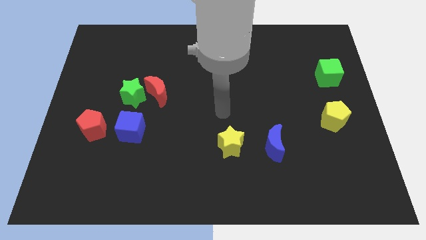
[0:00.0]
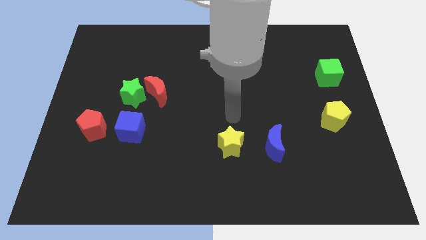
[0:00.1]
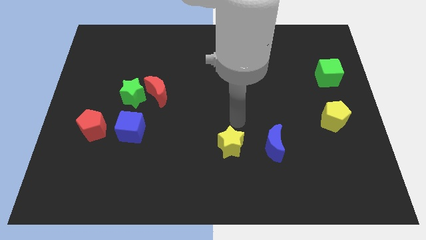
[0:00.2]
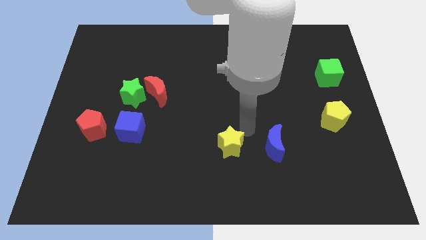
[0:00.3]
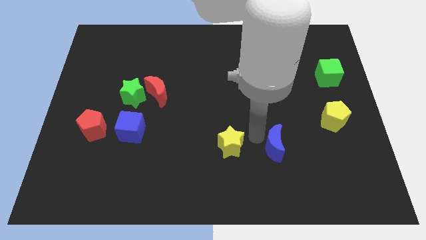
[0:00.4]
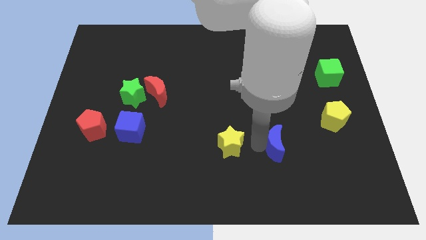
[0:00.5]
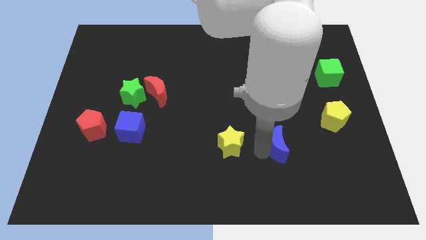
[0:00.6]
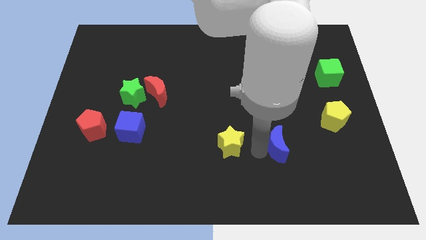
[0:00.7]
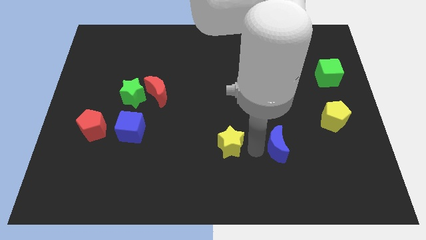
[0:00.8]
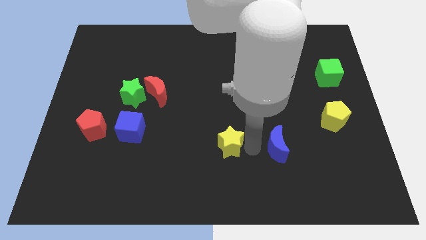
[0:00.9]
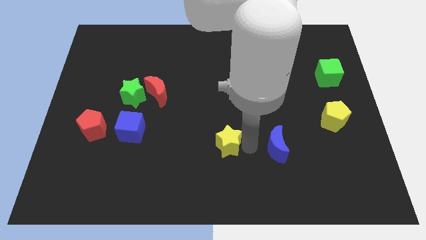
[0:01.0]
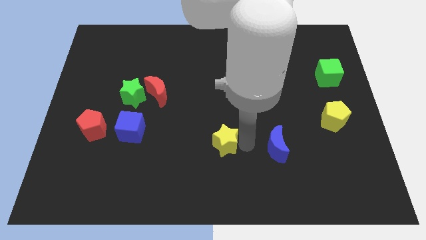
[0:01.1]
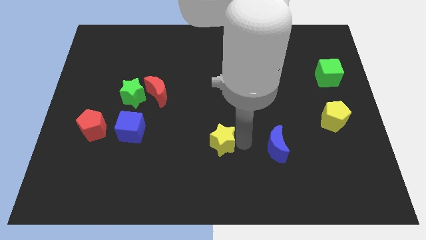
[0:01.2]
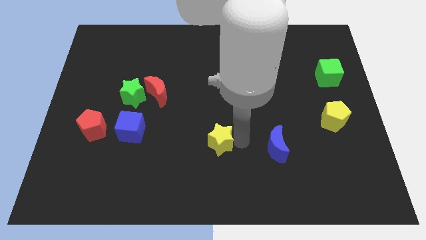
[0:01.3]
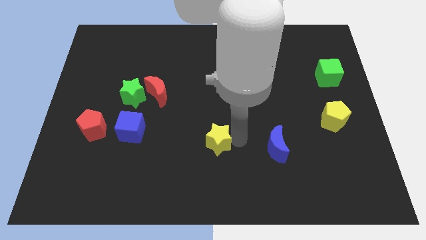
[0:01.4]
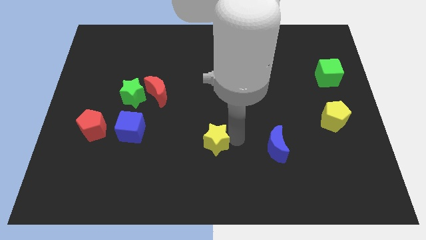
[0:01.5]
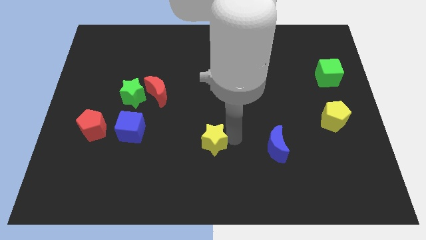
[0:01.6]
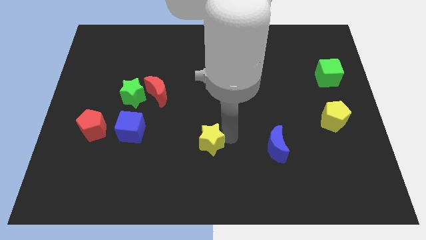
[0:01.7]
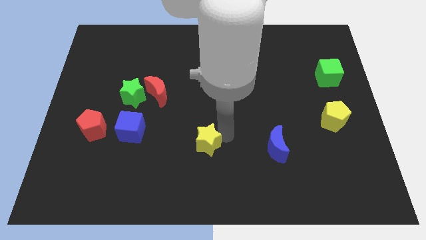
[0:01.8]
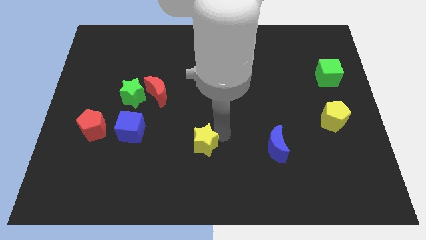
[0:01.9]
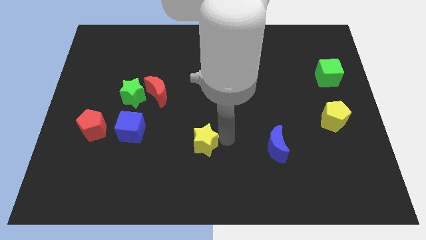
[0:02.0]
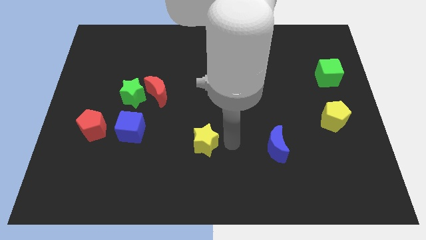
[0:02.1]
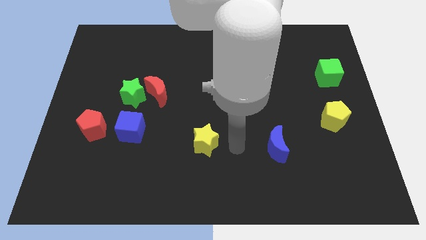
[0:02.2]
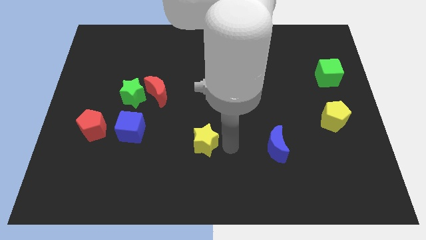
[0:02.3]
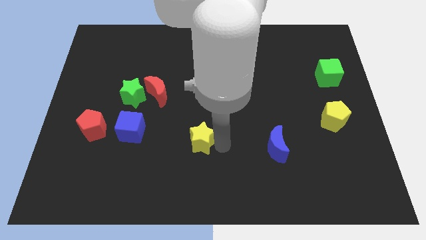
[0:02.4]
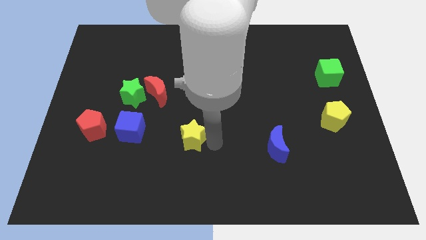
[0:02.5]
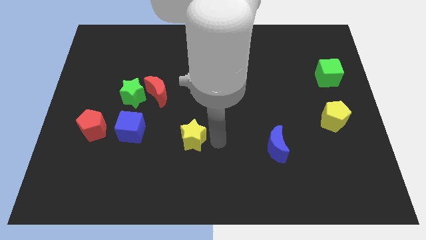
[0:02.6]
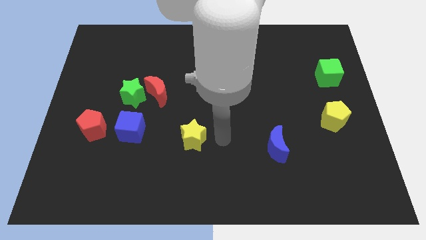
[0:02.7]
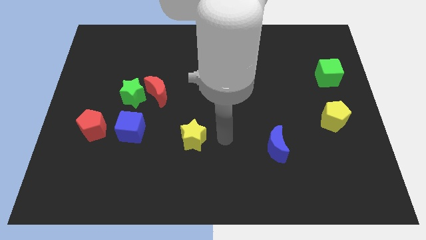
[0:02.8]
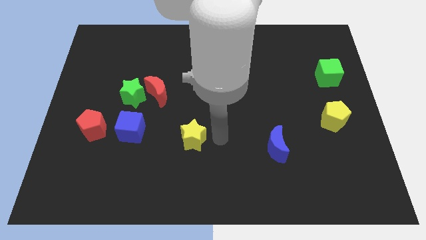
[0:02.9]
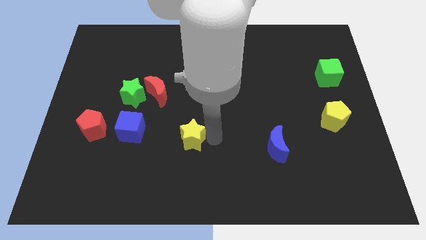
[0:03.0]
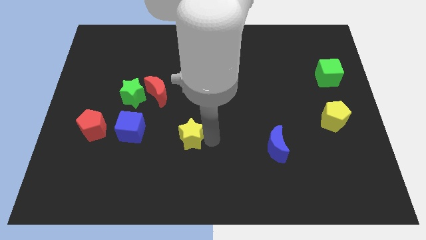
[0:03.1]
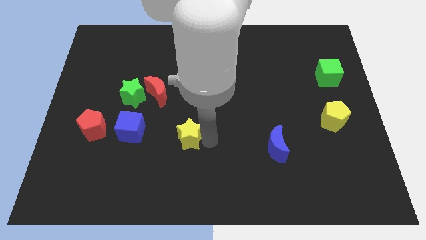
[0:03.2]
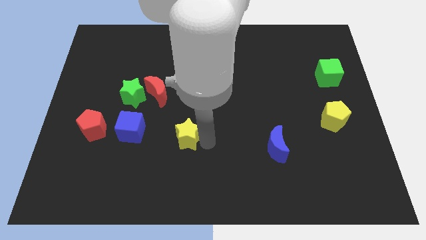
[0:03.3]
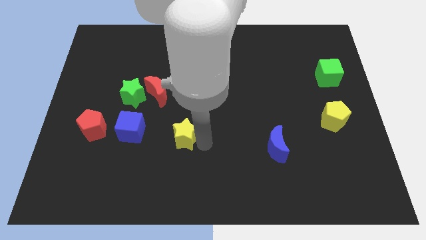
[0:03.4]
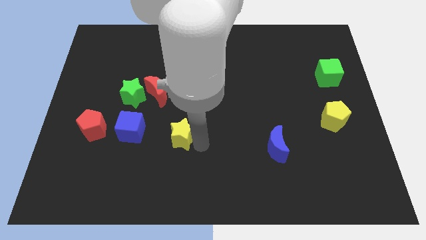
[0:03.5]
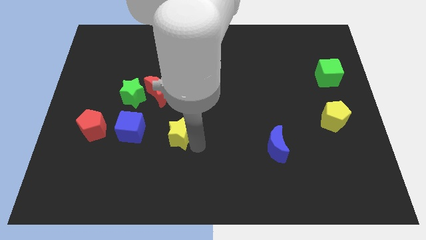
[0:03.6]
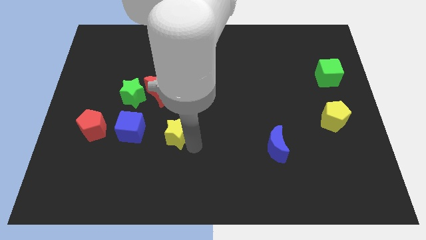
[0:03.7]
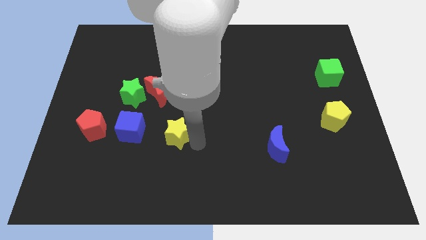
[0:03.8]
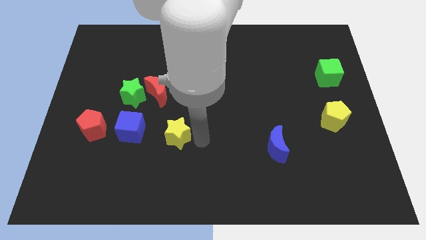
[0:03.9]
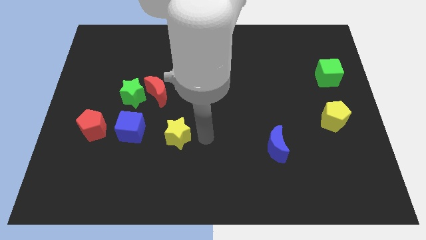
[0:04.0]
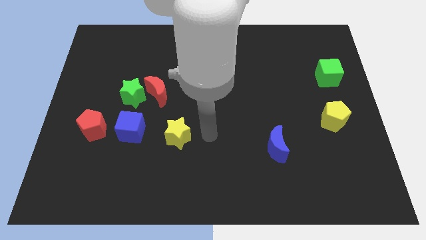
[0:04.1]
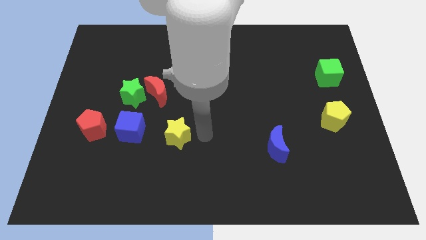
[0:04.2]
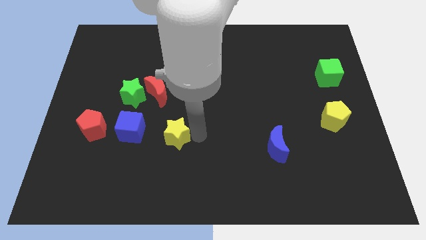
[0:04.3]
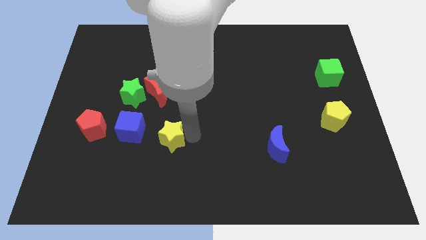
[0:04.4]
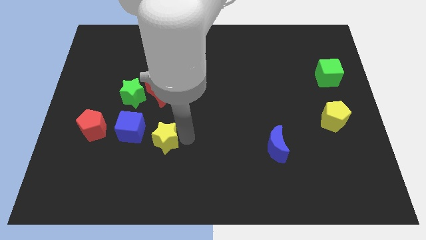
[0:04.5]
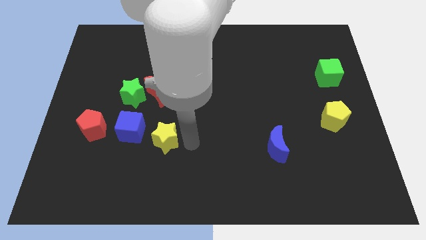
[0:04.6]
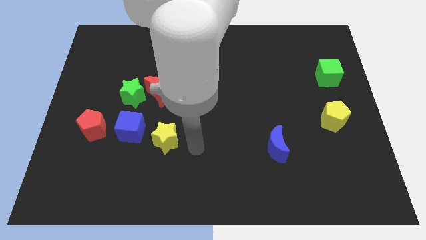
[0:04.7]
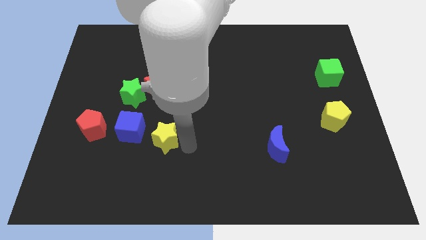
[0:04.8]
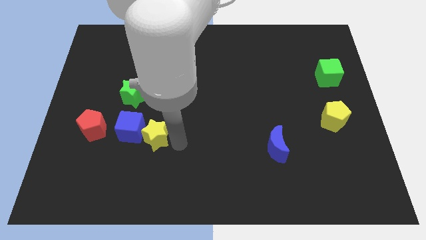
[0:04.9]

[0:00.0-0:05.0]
slide the yellow star next to the blue cube

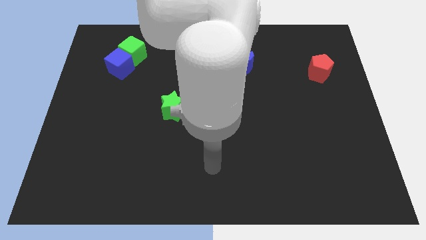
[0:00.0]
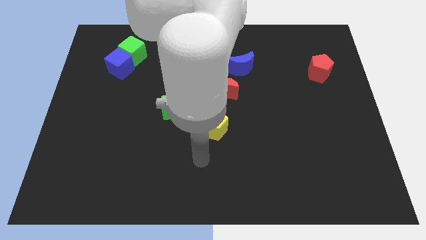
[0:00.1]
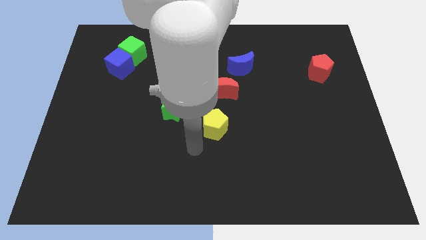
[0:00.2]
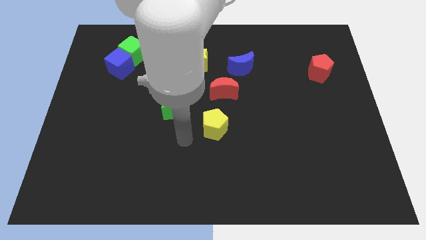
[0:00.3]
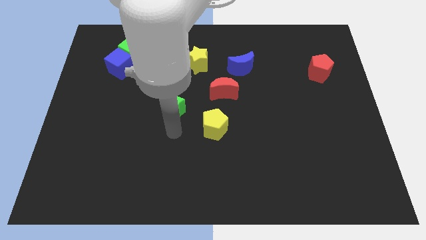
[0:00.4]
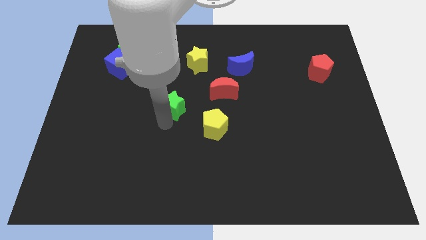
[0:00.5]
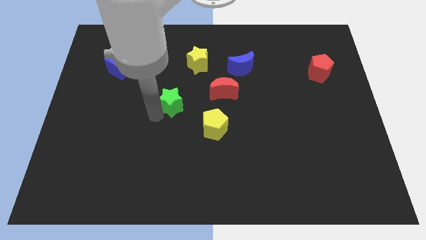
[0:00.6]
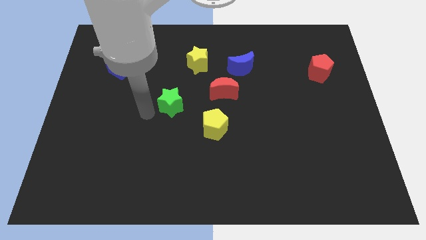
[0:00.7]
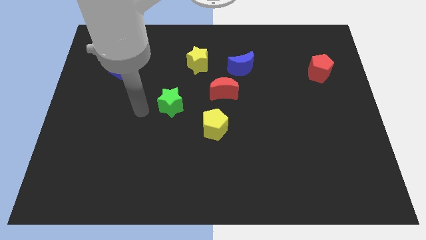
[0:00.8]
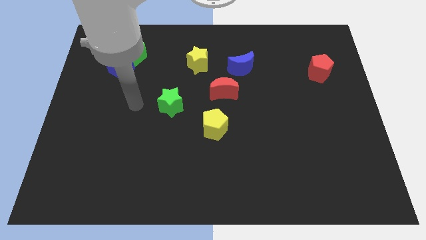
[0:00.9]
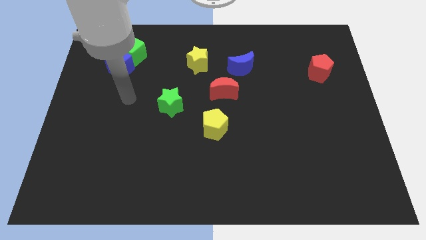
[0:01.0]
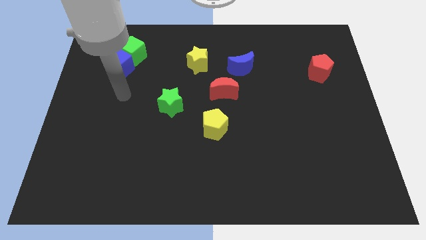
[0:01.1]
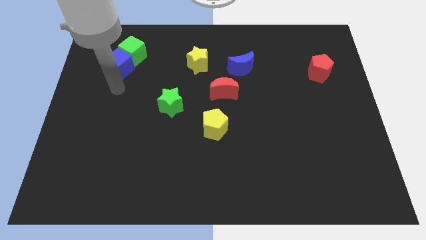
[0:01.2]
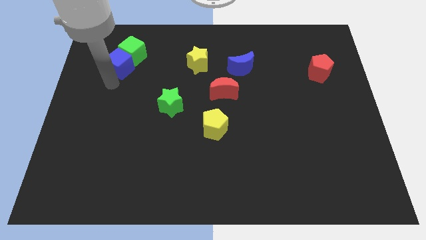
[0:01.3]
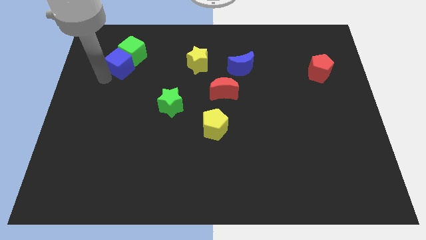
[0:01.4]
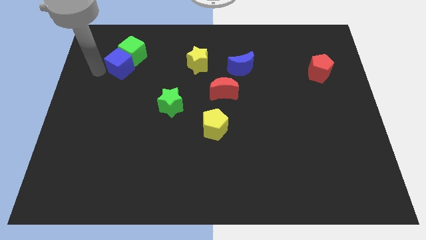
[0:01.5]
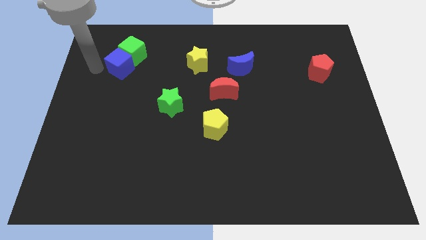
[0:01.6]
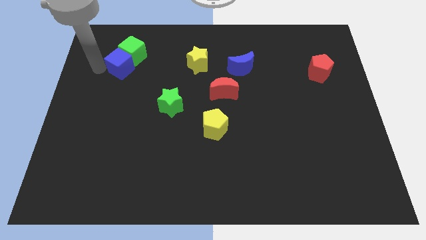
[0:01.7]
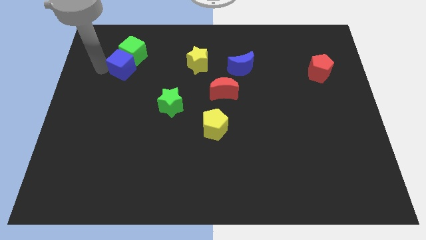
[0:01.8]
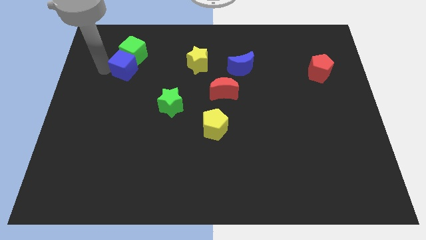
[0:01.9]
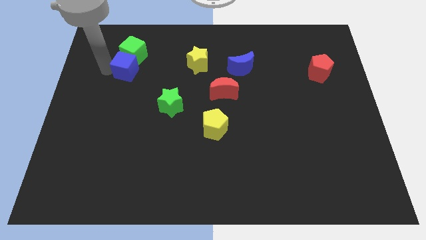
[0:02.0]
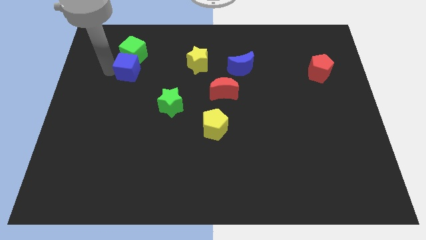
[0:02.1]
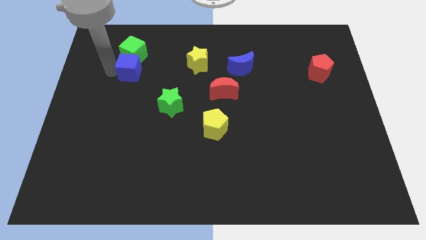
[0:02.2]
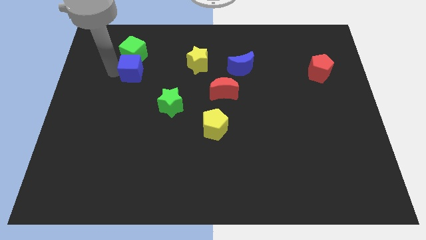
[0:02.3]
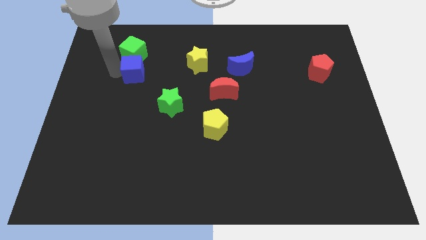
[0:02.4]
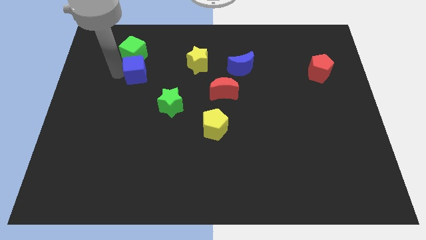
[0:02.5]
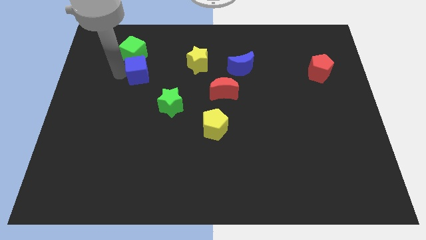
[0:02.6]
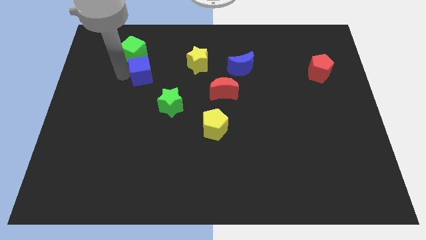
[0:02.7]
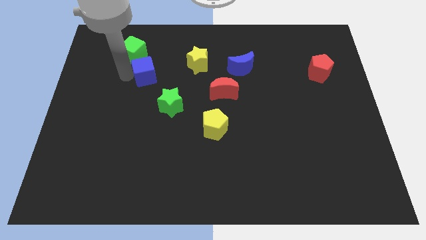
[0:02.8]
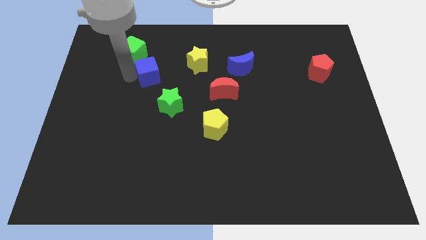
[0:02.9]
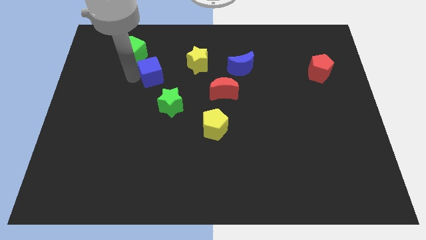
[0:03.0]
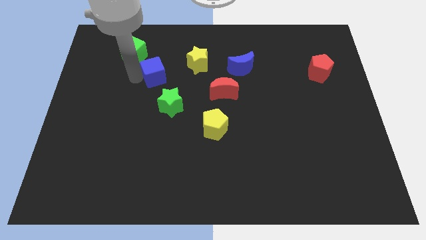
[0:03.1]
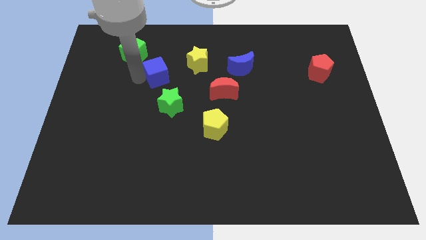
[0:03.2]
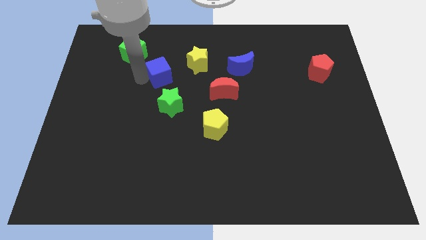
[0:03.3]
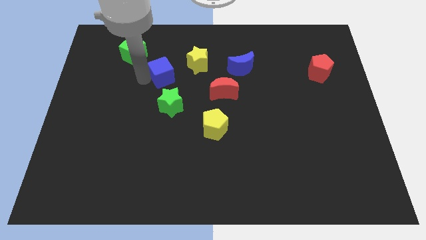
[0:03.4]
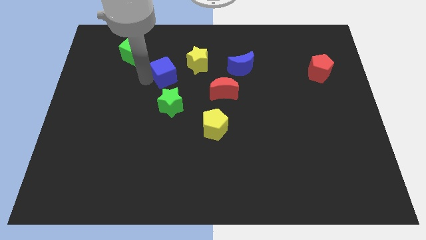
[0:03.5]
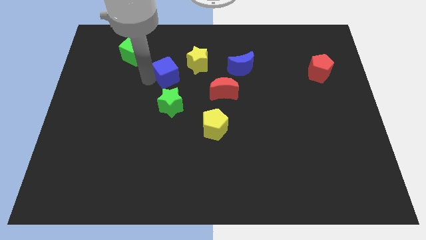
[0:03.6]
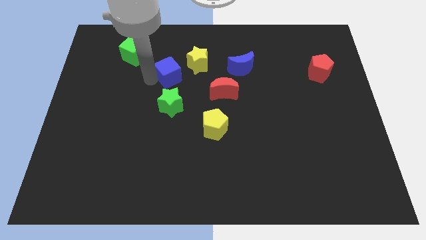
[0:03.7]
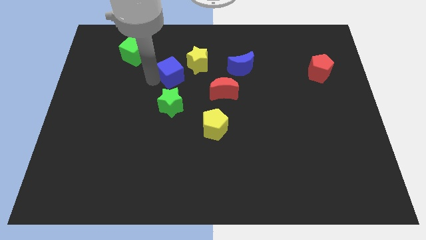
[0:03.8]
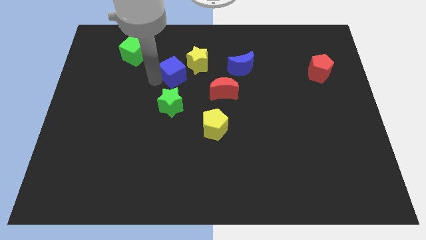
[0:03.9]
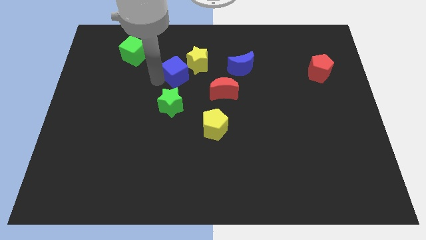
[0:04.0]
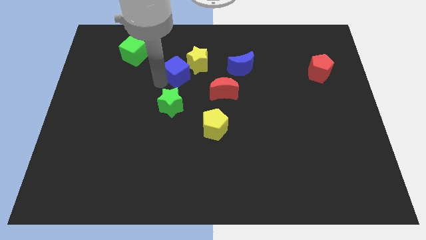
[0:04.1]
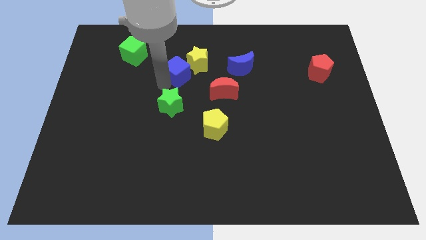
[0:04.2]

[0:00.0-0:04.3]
put the blue cube close to the yellow star
